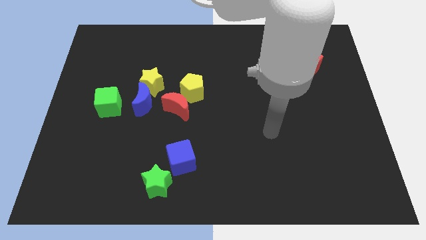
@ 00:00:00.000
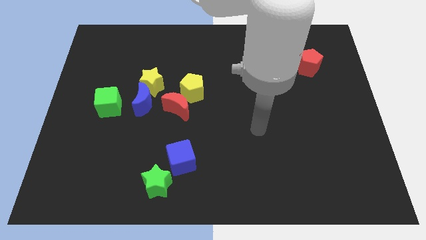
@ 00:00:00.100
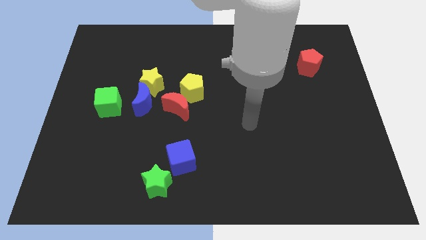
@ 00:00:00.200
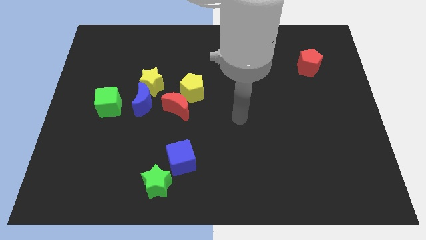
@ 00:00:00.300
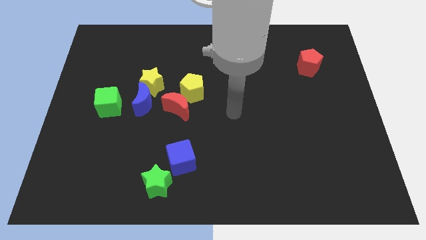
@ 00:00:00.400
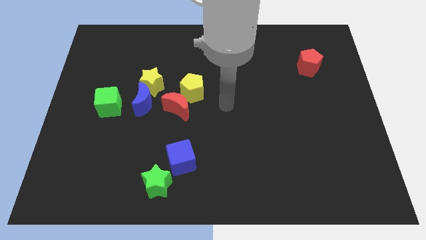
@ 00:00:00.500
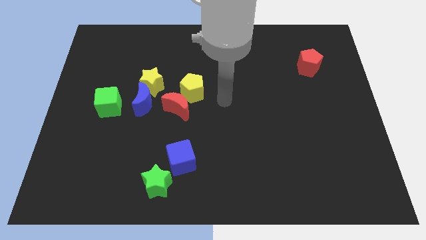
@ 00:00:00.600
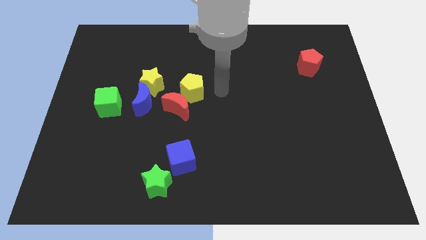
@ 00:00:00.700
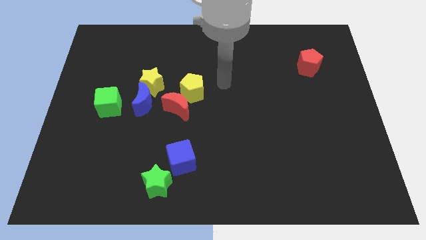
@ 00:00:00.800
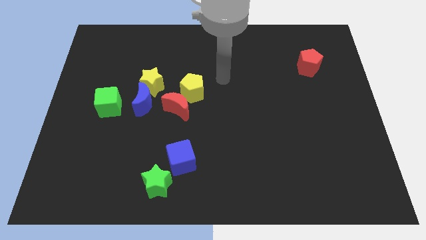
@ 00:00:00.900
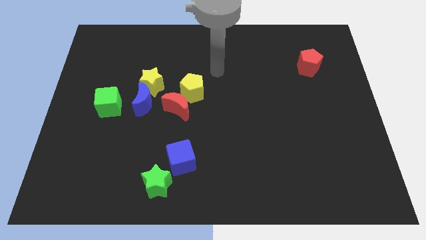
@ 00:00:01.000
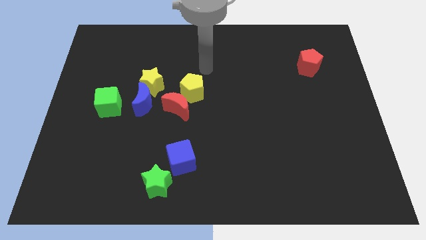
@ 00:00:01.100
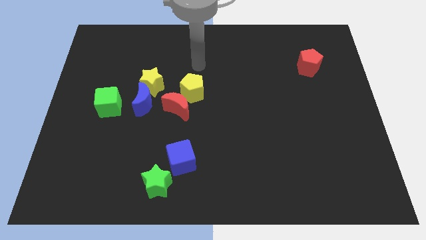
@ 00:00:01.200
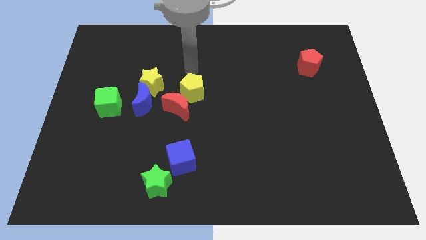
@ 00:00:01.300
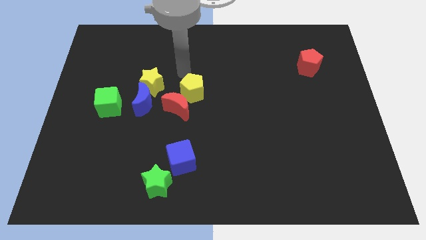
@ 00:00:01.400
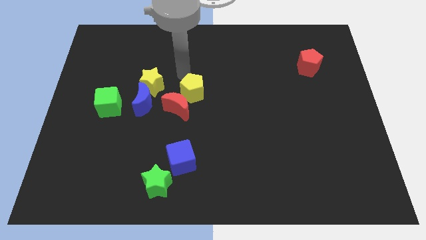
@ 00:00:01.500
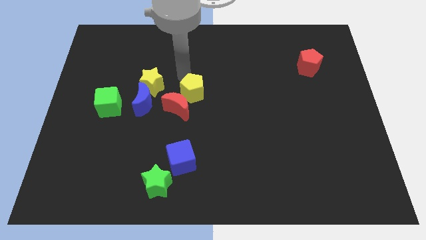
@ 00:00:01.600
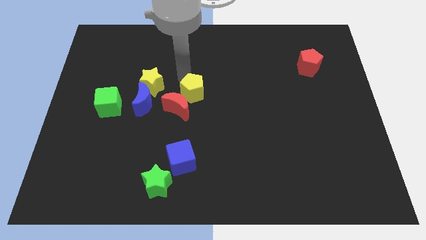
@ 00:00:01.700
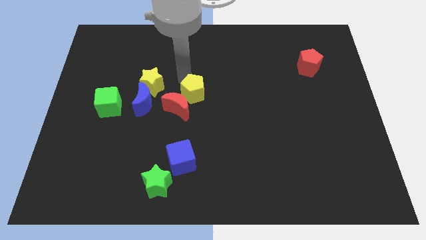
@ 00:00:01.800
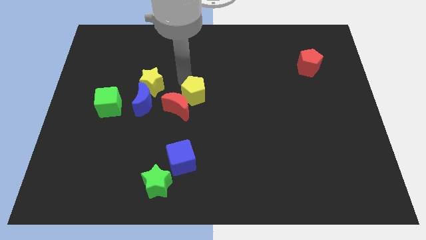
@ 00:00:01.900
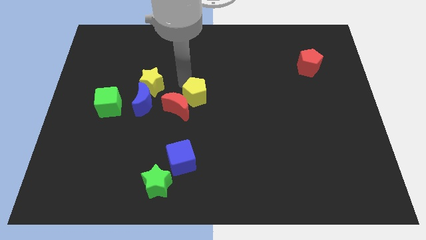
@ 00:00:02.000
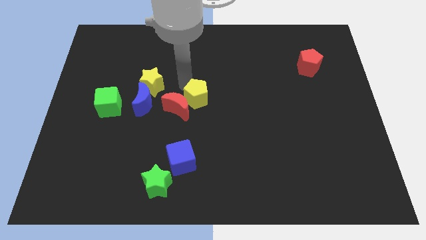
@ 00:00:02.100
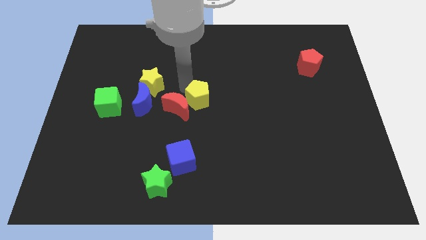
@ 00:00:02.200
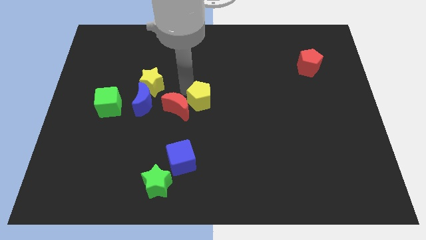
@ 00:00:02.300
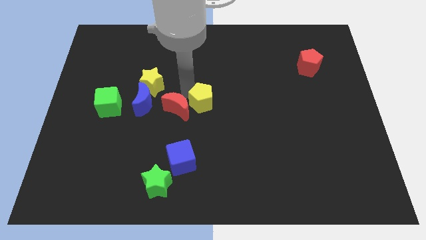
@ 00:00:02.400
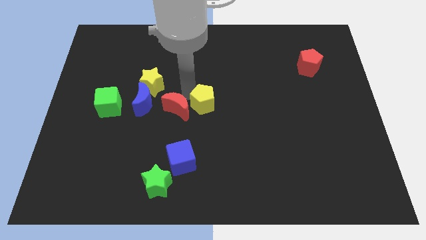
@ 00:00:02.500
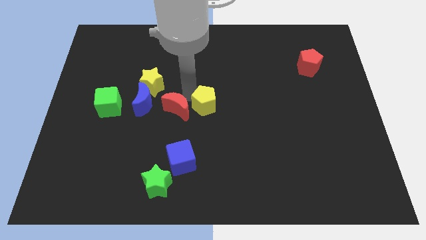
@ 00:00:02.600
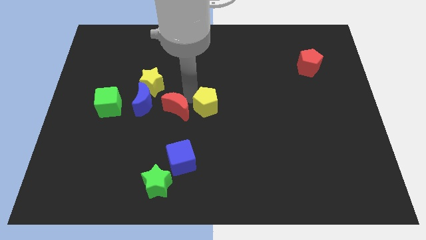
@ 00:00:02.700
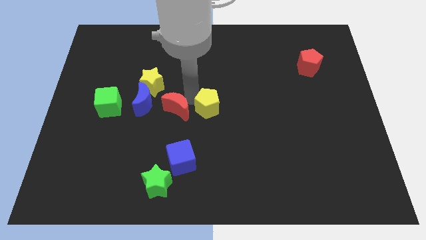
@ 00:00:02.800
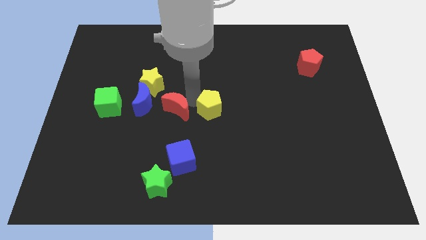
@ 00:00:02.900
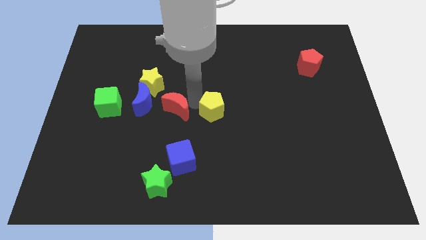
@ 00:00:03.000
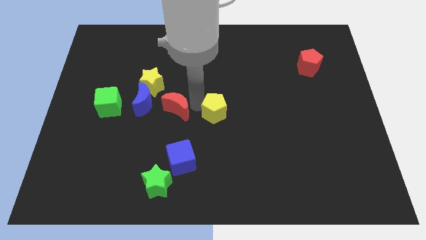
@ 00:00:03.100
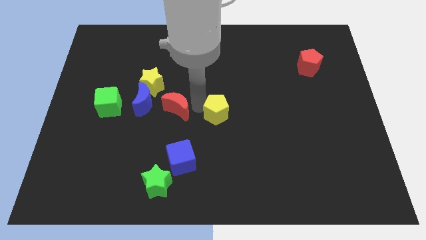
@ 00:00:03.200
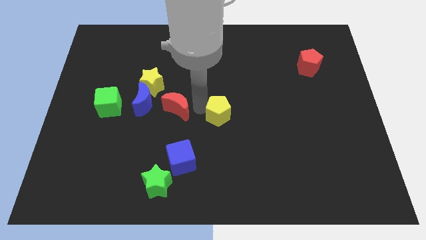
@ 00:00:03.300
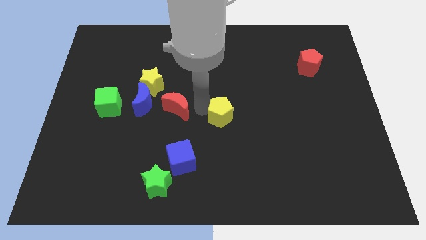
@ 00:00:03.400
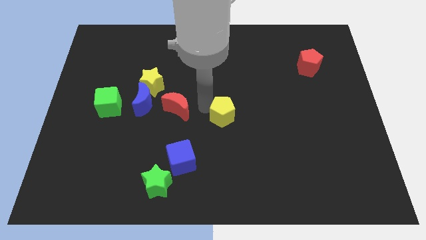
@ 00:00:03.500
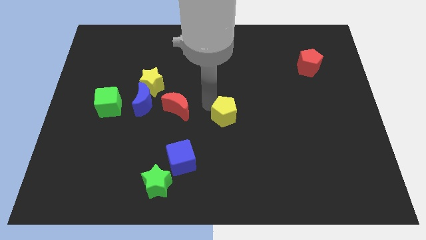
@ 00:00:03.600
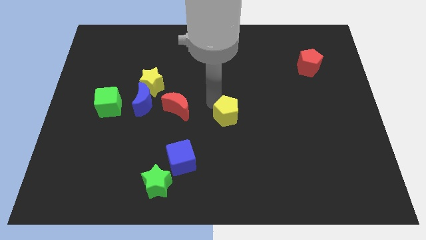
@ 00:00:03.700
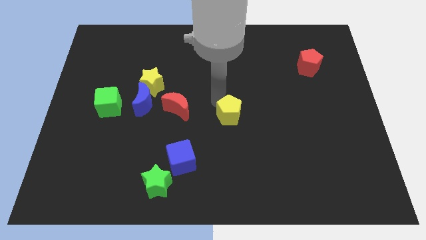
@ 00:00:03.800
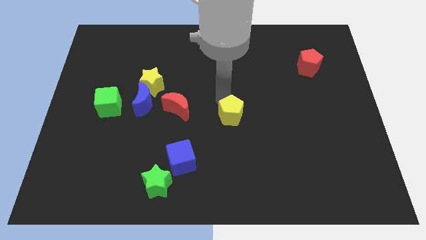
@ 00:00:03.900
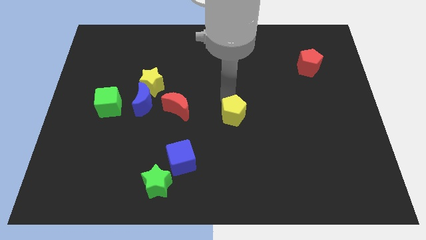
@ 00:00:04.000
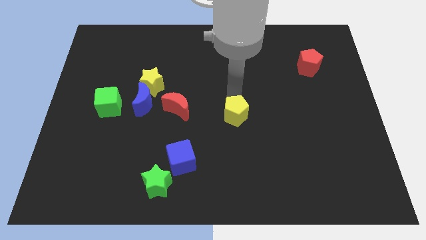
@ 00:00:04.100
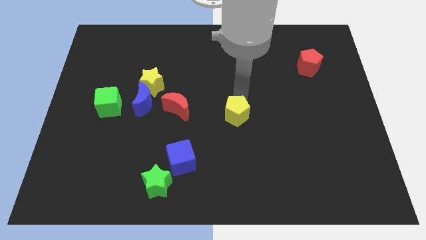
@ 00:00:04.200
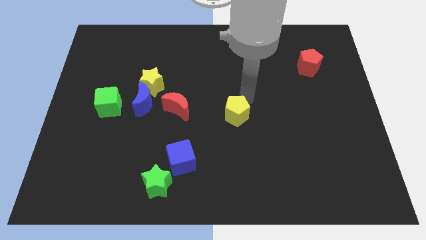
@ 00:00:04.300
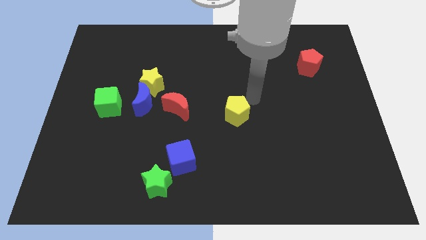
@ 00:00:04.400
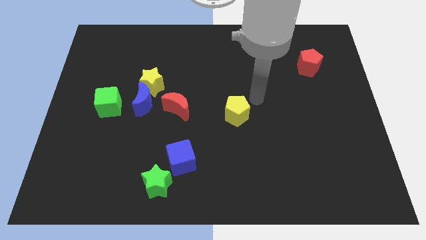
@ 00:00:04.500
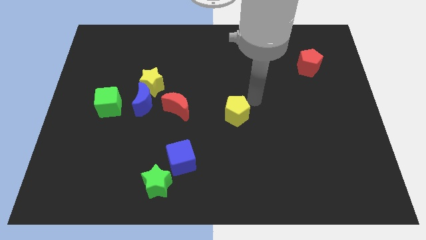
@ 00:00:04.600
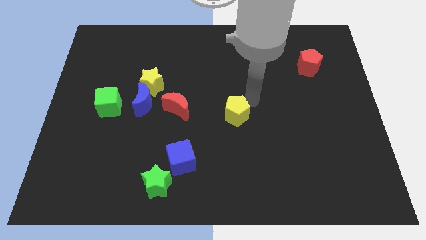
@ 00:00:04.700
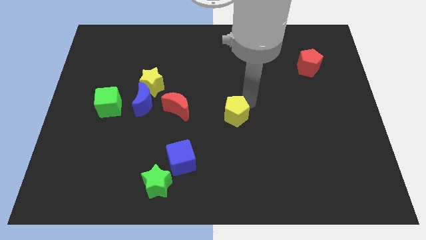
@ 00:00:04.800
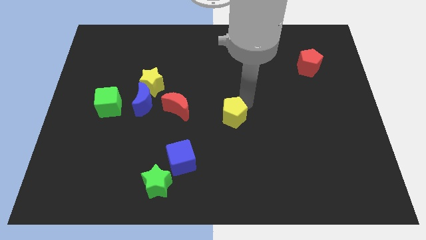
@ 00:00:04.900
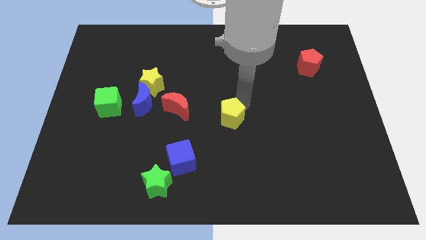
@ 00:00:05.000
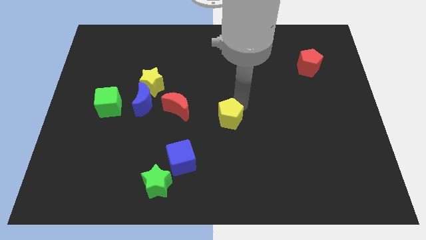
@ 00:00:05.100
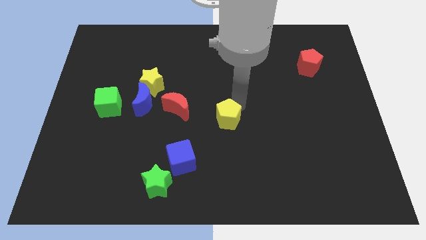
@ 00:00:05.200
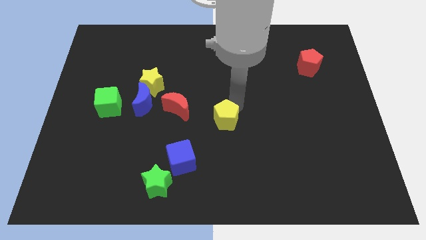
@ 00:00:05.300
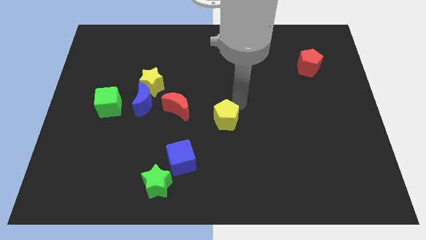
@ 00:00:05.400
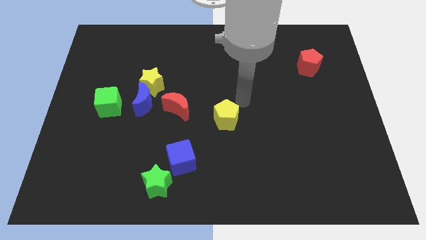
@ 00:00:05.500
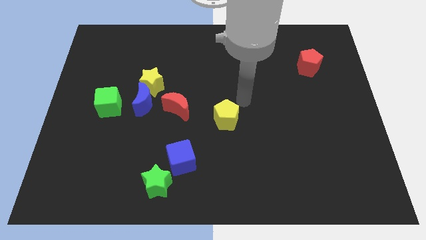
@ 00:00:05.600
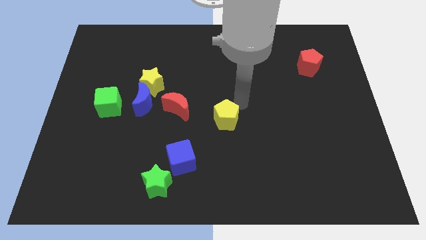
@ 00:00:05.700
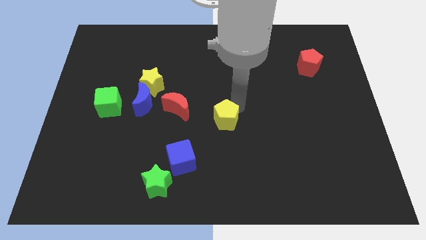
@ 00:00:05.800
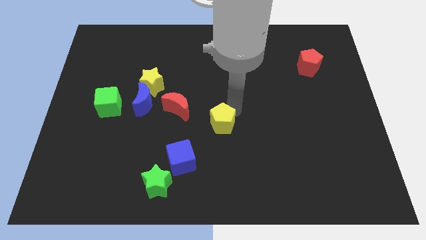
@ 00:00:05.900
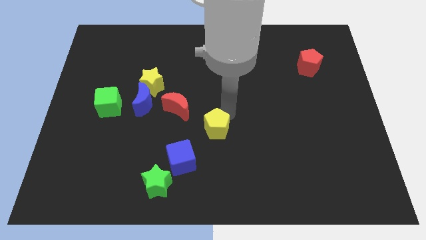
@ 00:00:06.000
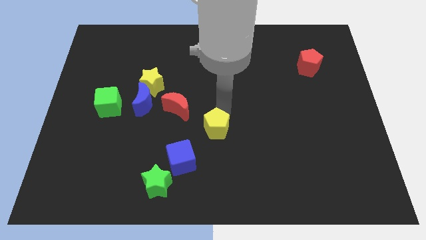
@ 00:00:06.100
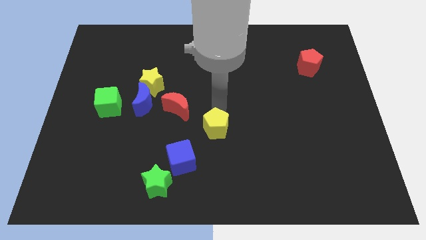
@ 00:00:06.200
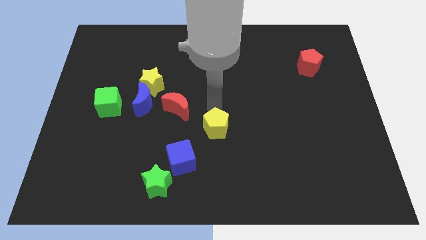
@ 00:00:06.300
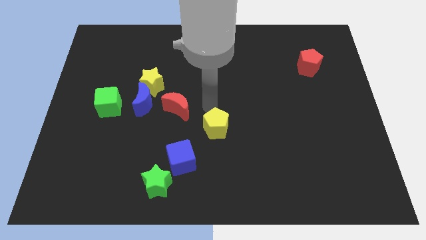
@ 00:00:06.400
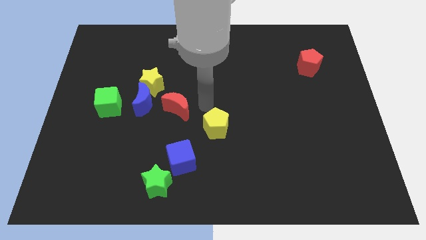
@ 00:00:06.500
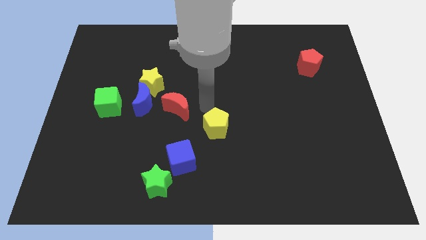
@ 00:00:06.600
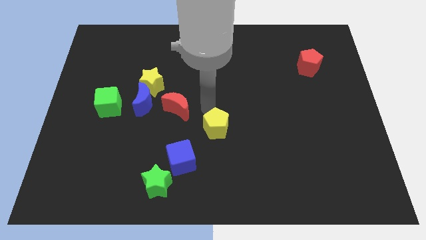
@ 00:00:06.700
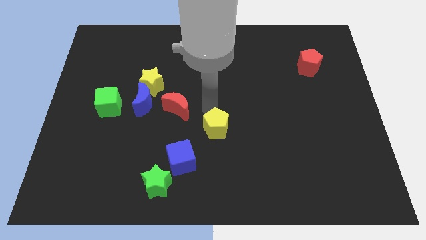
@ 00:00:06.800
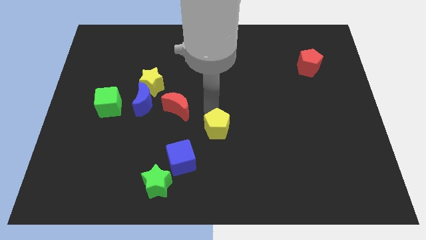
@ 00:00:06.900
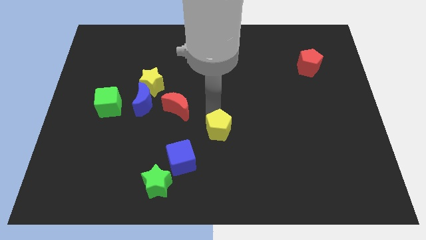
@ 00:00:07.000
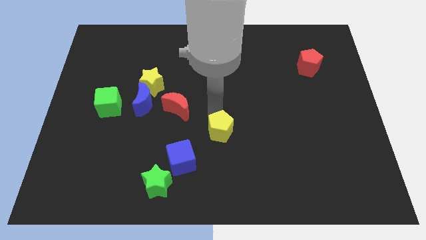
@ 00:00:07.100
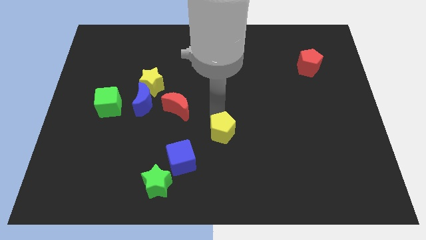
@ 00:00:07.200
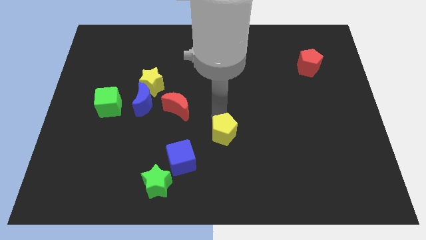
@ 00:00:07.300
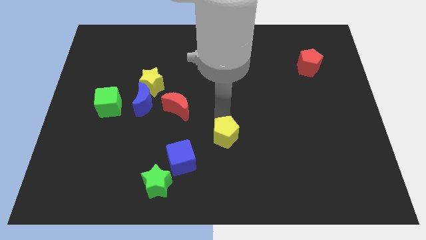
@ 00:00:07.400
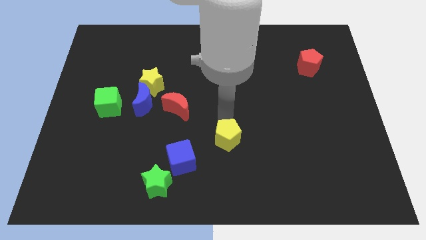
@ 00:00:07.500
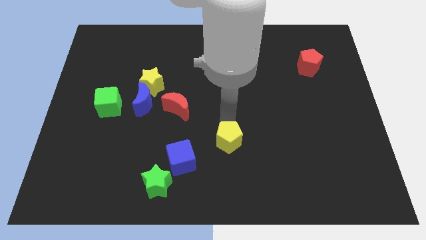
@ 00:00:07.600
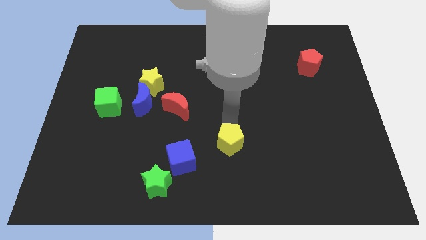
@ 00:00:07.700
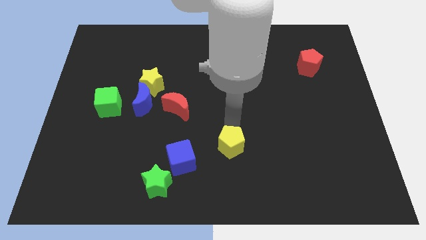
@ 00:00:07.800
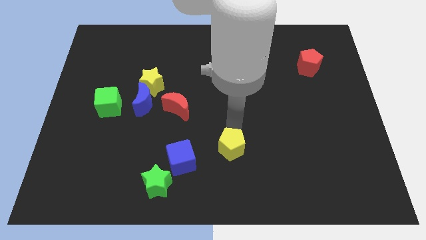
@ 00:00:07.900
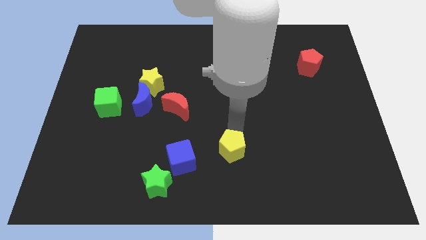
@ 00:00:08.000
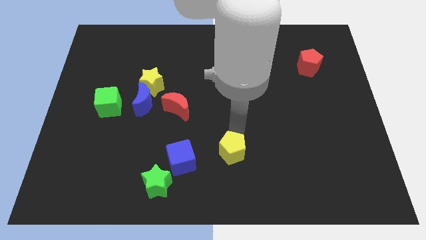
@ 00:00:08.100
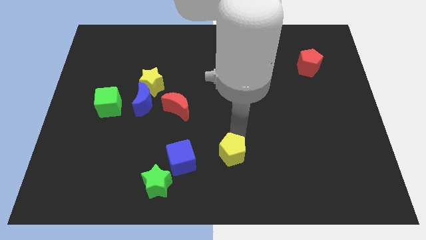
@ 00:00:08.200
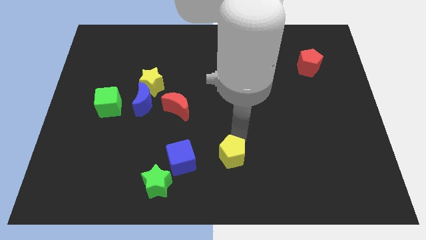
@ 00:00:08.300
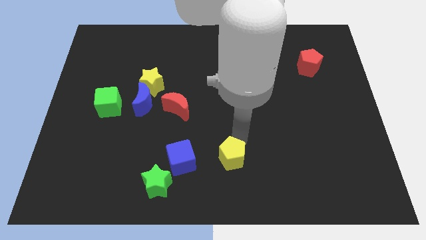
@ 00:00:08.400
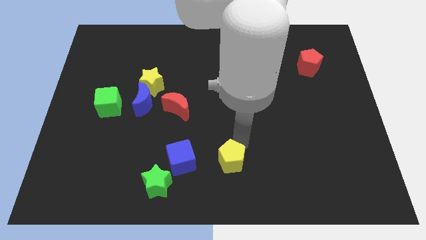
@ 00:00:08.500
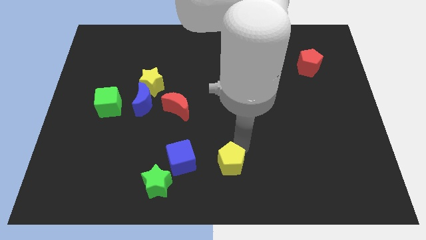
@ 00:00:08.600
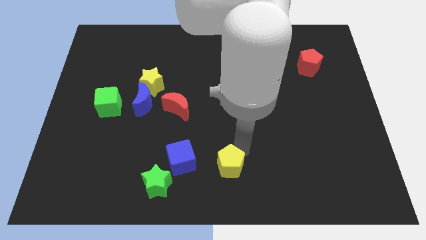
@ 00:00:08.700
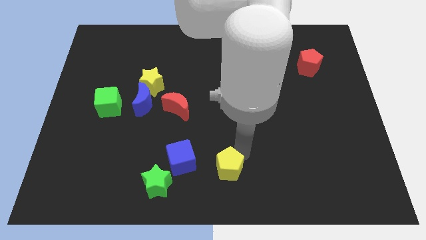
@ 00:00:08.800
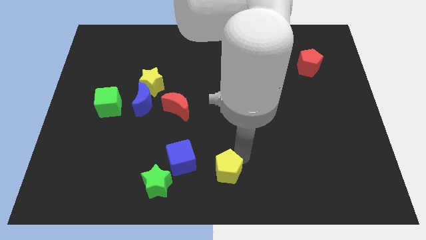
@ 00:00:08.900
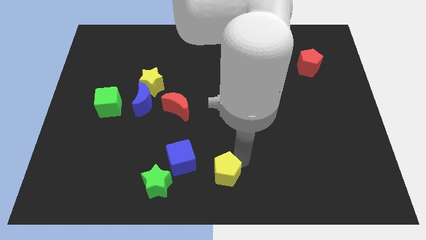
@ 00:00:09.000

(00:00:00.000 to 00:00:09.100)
put the yellow pentagon to the bottom right side of the blue cube
